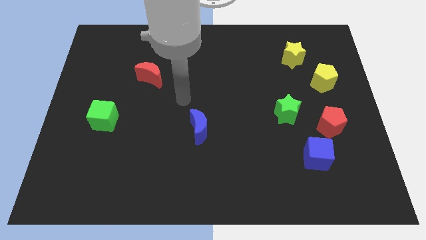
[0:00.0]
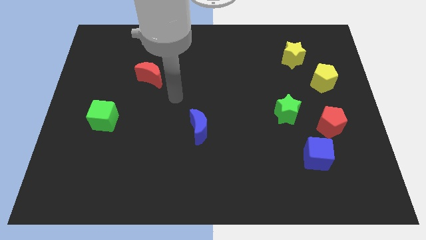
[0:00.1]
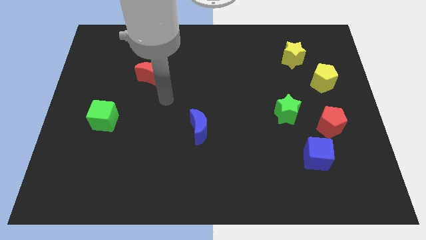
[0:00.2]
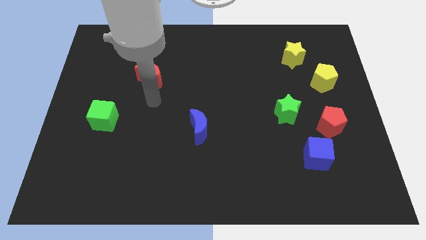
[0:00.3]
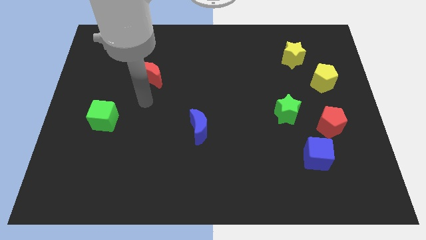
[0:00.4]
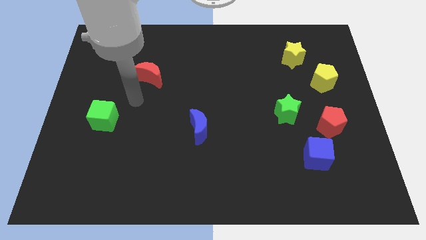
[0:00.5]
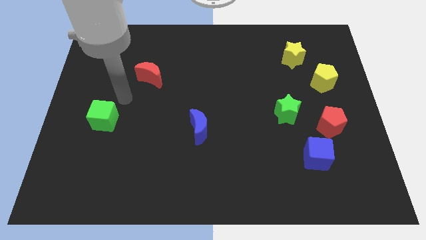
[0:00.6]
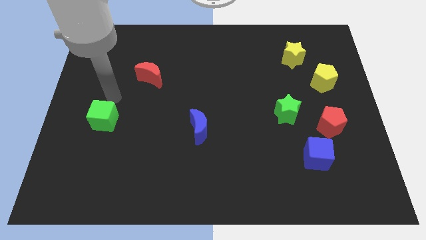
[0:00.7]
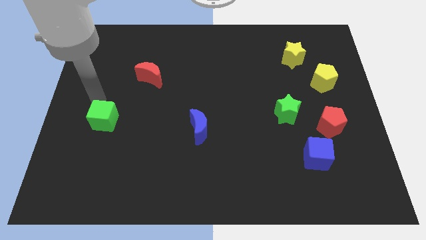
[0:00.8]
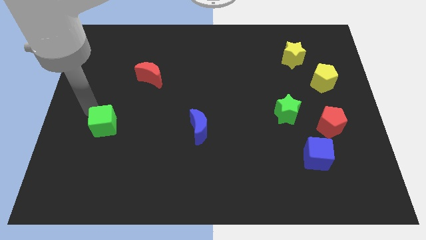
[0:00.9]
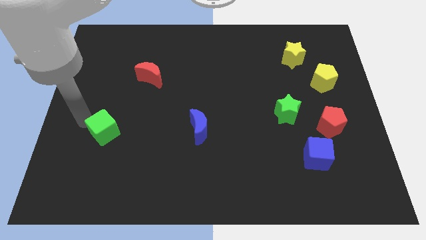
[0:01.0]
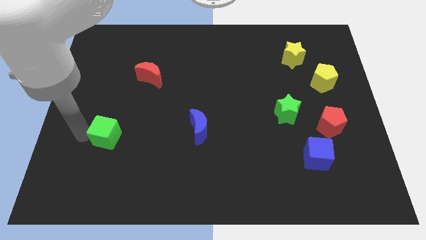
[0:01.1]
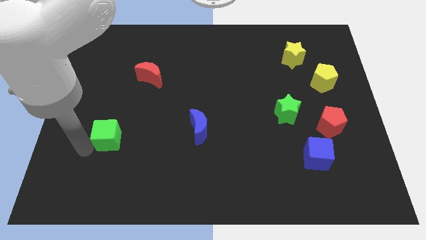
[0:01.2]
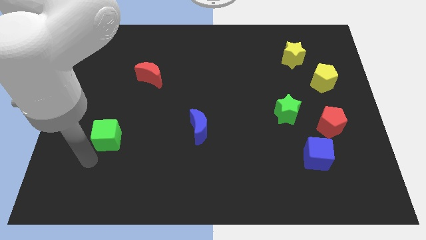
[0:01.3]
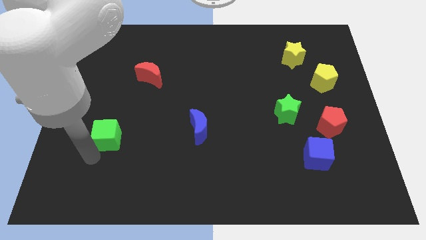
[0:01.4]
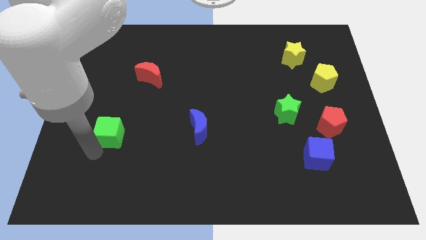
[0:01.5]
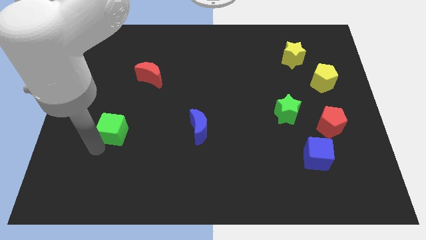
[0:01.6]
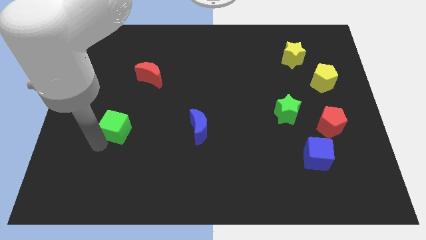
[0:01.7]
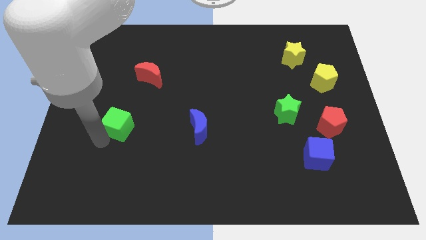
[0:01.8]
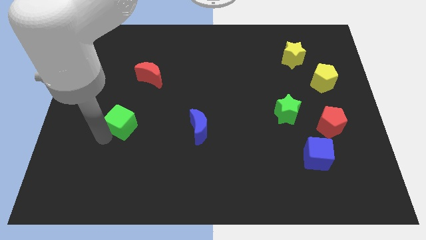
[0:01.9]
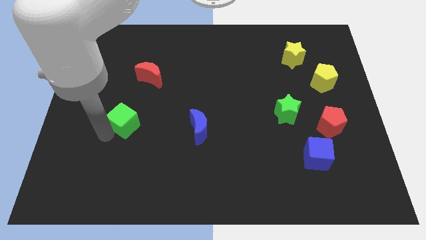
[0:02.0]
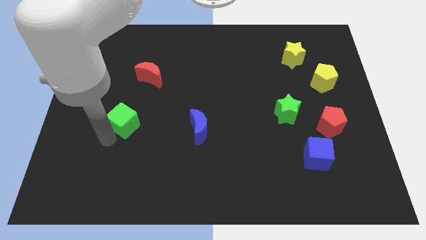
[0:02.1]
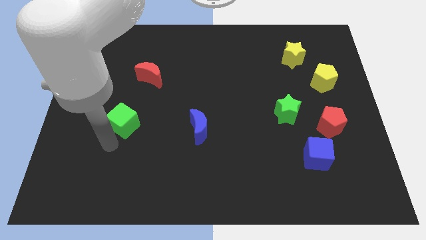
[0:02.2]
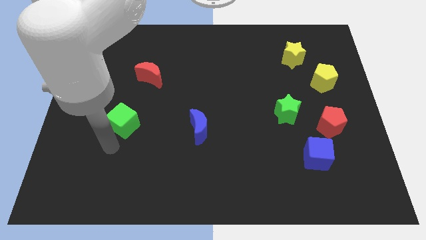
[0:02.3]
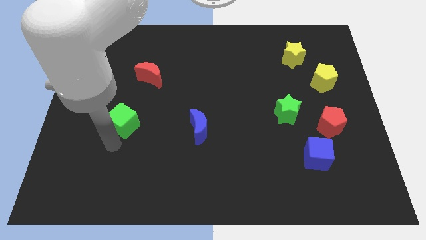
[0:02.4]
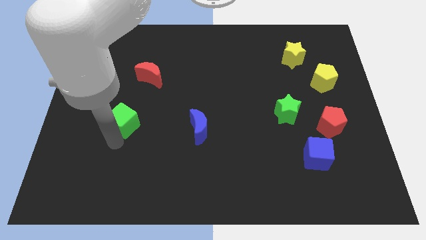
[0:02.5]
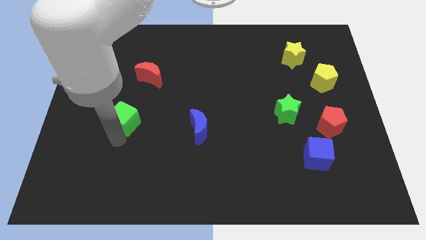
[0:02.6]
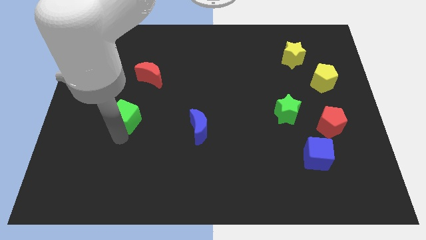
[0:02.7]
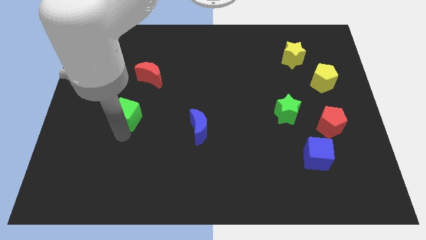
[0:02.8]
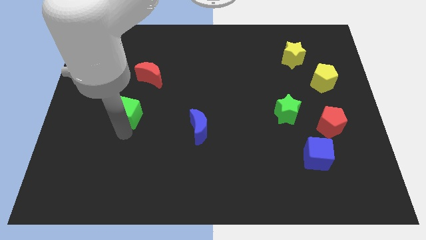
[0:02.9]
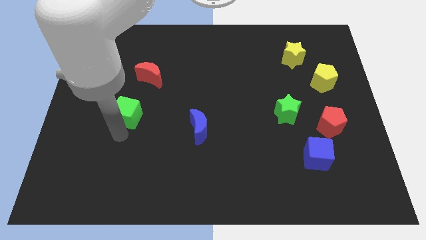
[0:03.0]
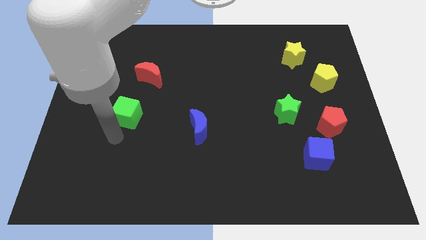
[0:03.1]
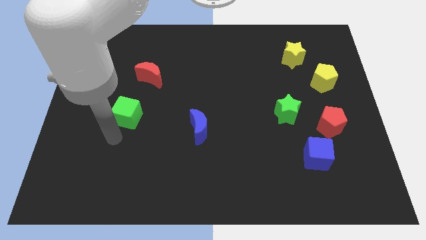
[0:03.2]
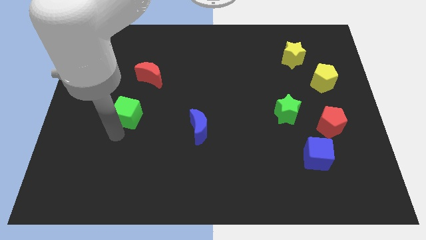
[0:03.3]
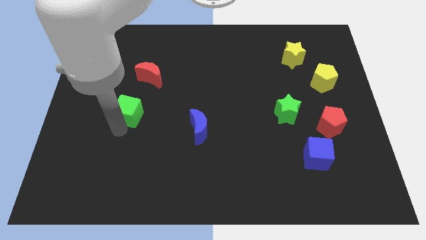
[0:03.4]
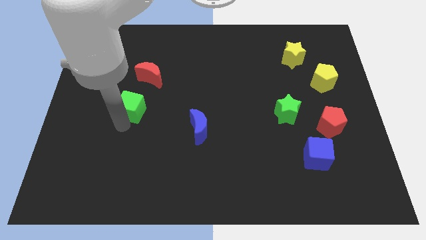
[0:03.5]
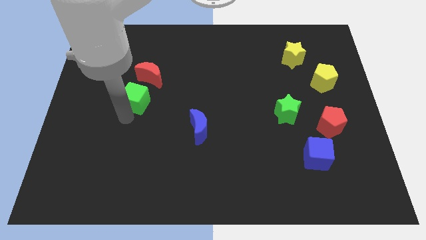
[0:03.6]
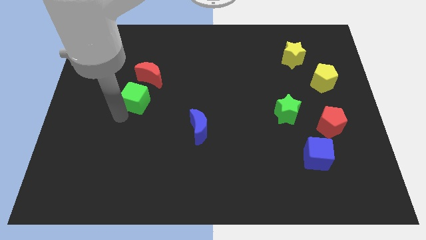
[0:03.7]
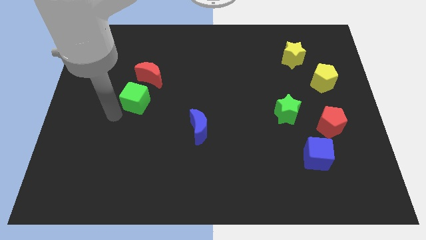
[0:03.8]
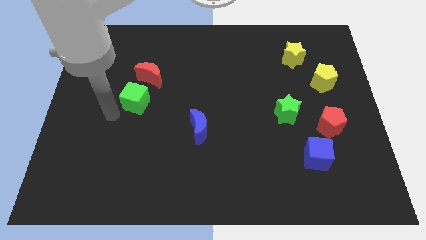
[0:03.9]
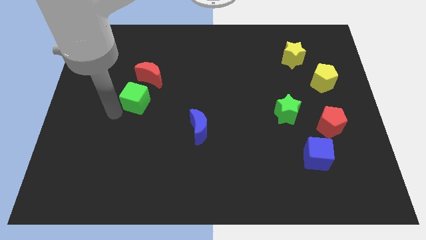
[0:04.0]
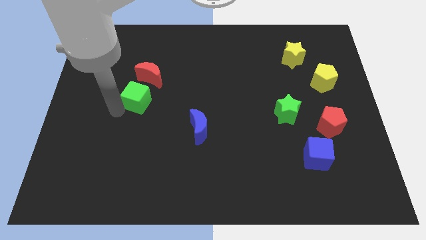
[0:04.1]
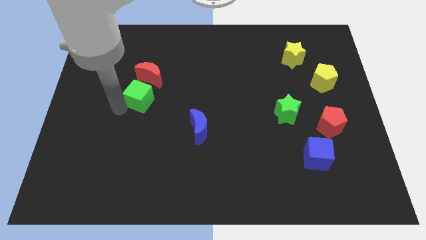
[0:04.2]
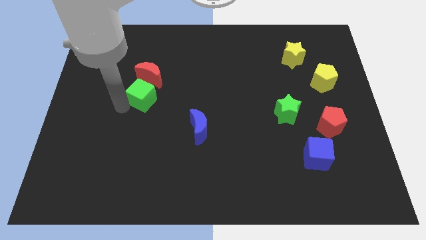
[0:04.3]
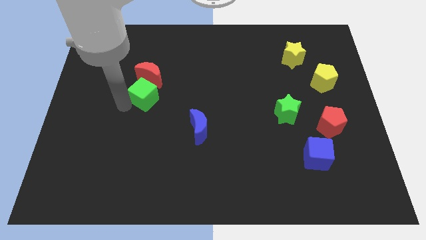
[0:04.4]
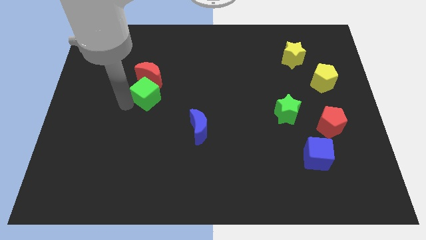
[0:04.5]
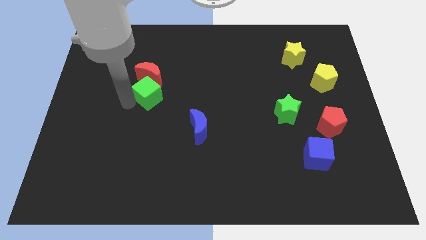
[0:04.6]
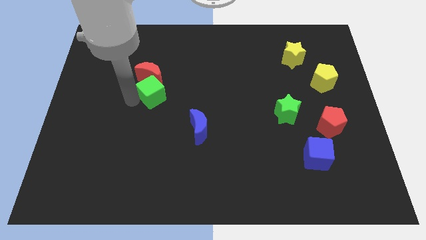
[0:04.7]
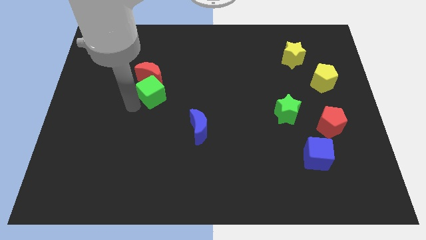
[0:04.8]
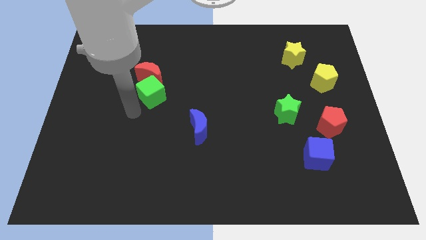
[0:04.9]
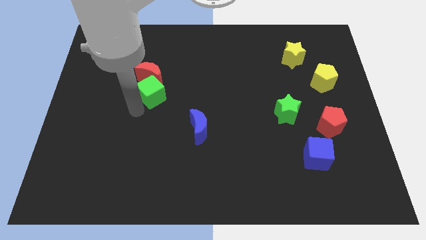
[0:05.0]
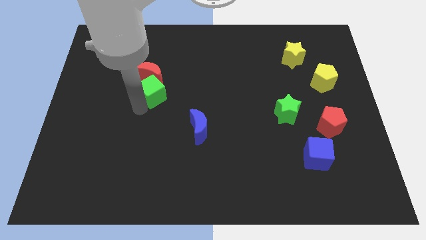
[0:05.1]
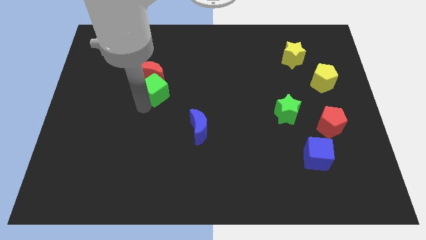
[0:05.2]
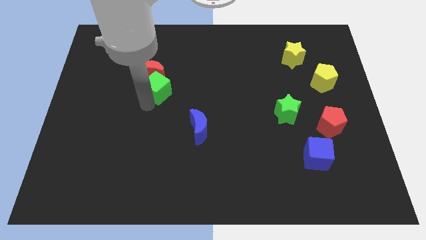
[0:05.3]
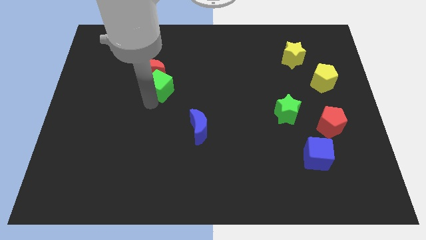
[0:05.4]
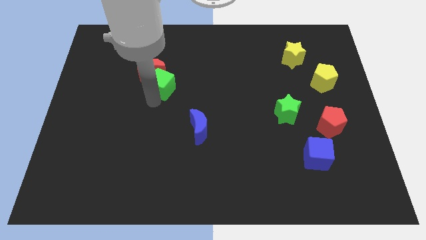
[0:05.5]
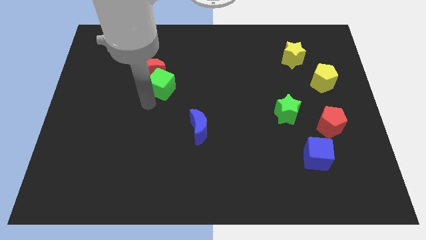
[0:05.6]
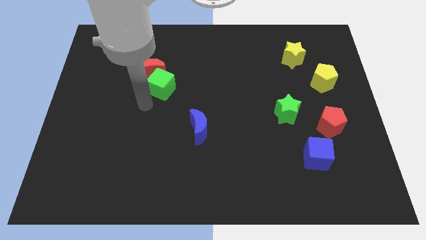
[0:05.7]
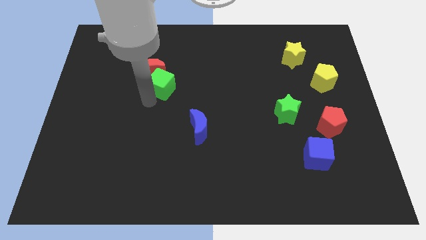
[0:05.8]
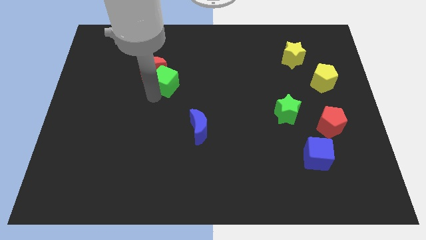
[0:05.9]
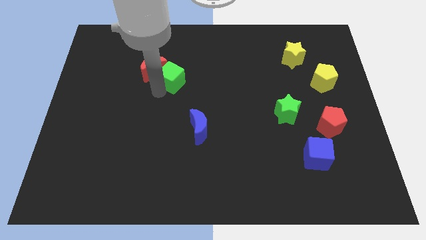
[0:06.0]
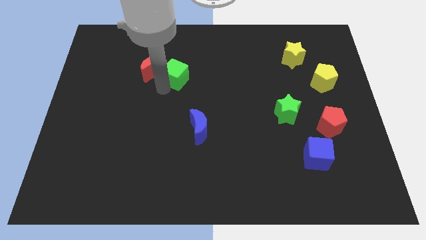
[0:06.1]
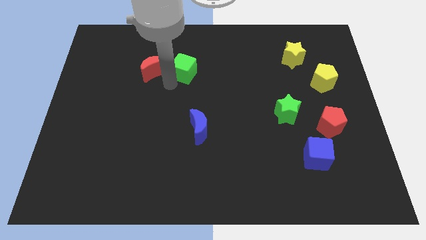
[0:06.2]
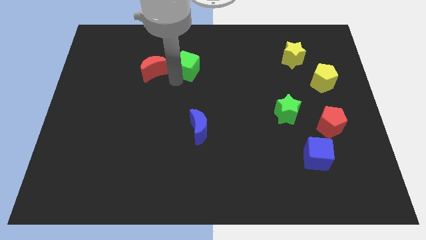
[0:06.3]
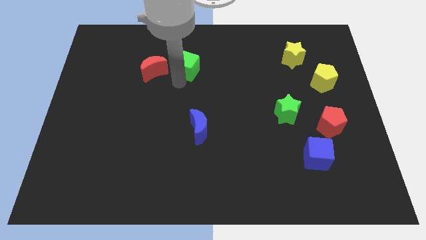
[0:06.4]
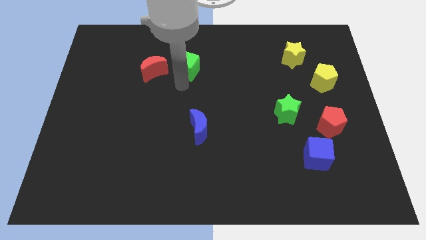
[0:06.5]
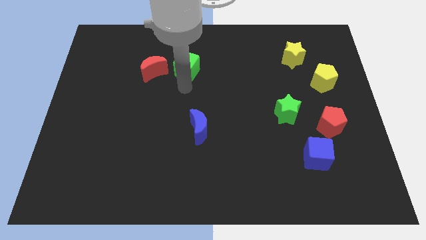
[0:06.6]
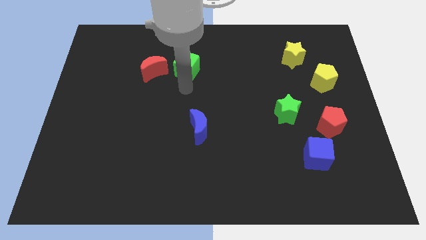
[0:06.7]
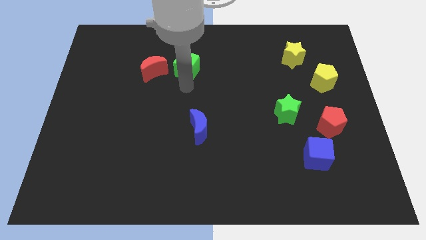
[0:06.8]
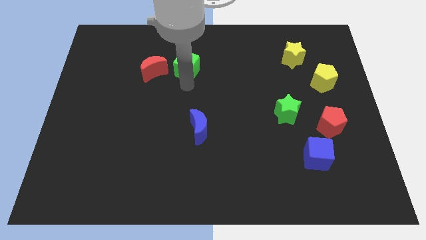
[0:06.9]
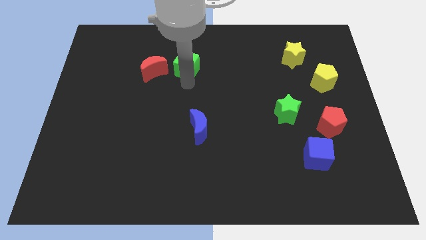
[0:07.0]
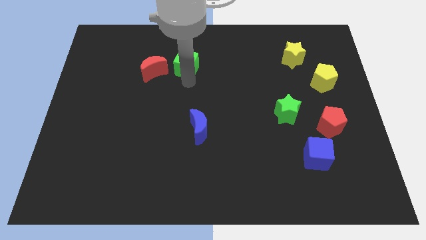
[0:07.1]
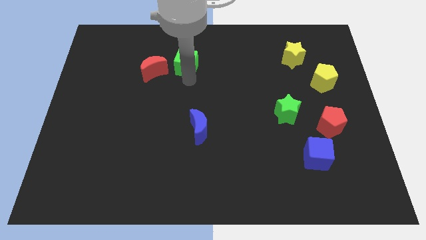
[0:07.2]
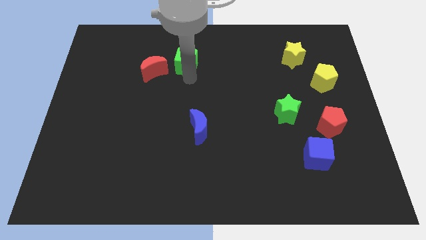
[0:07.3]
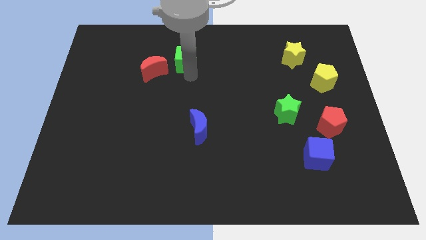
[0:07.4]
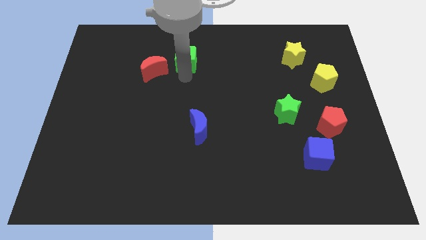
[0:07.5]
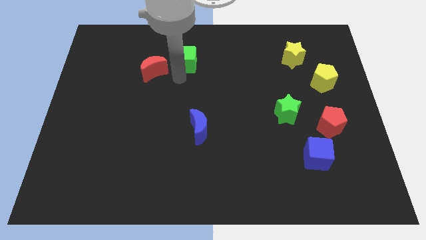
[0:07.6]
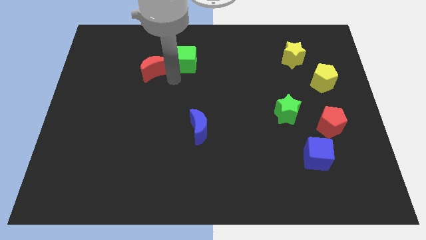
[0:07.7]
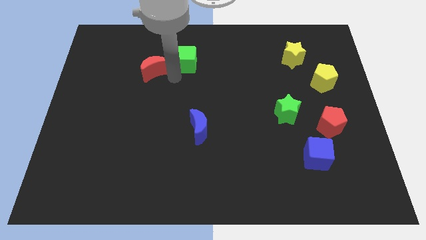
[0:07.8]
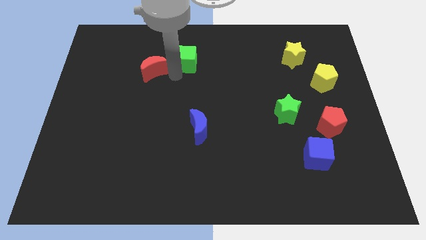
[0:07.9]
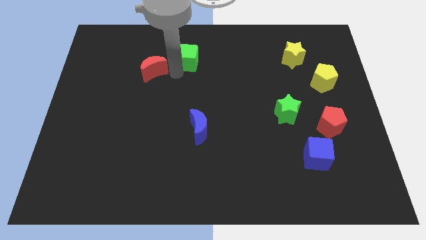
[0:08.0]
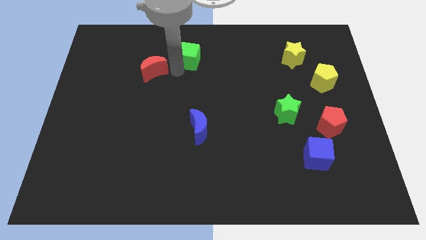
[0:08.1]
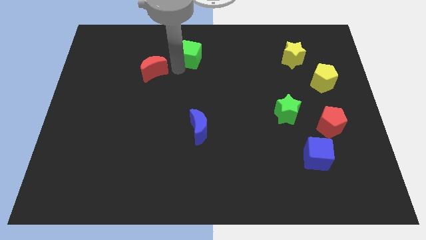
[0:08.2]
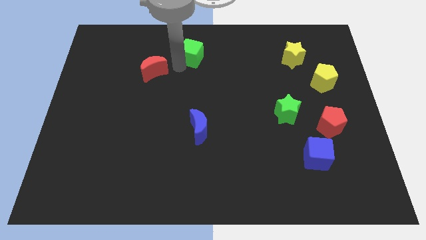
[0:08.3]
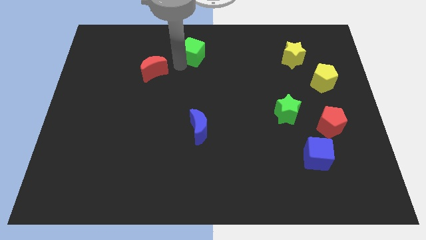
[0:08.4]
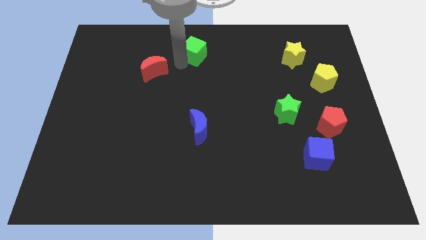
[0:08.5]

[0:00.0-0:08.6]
put the green cube to the top side
